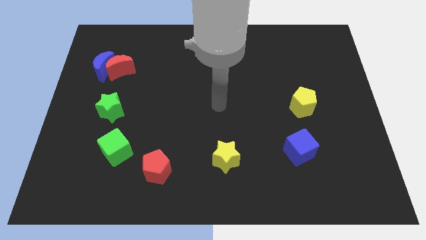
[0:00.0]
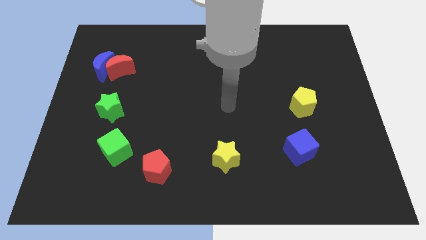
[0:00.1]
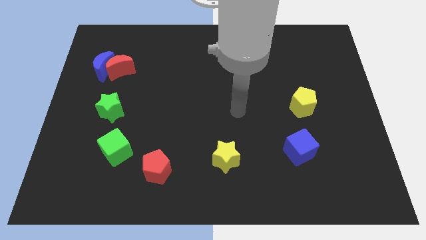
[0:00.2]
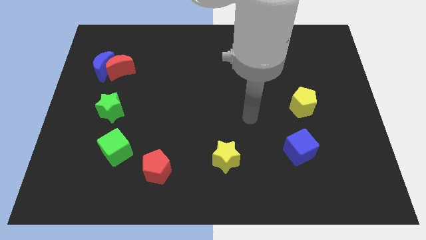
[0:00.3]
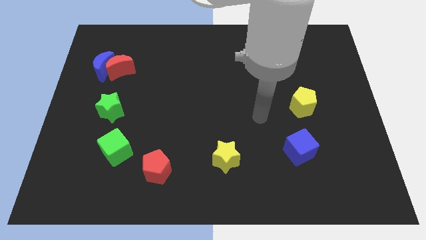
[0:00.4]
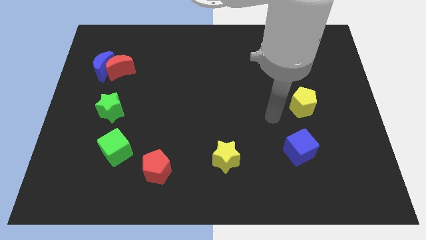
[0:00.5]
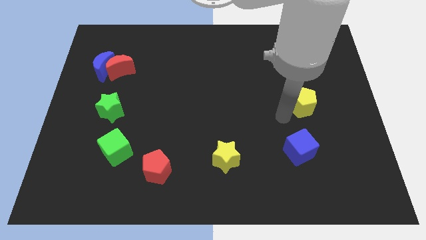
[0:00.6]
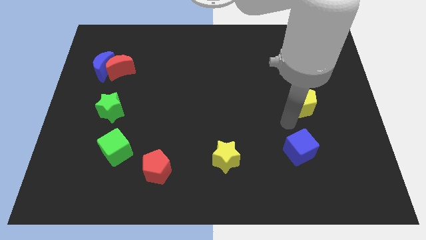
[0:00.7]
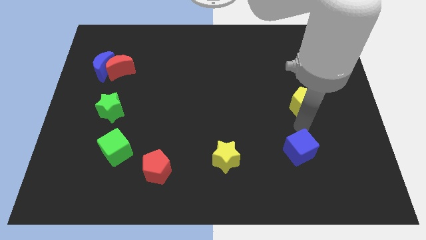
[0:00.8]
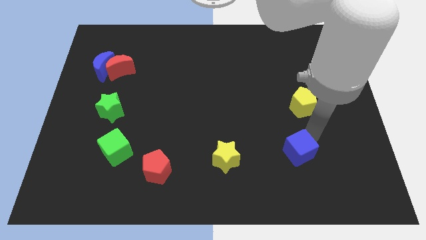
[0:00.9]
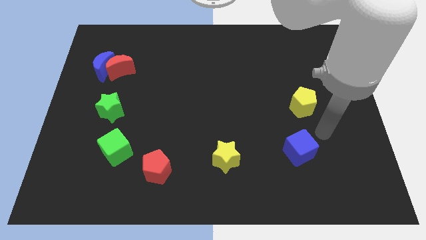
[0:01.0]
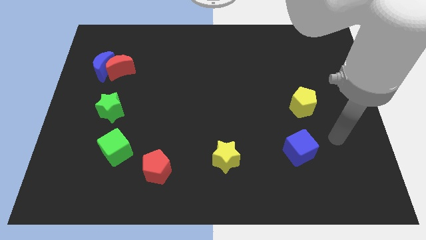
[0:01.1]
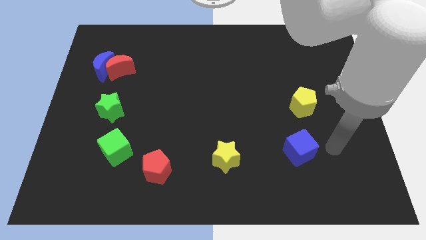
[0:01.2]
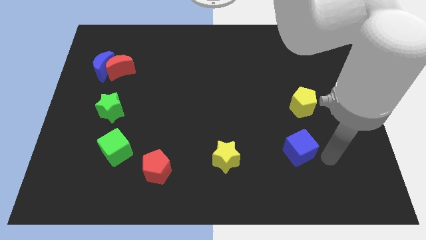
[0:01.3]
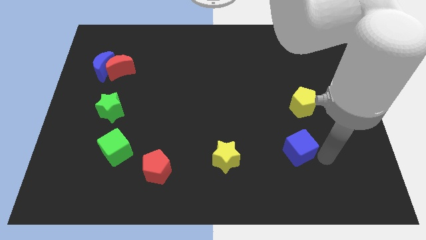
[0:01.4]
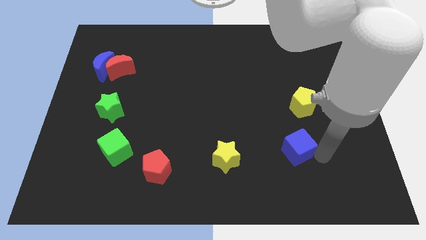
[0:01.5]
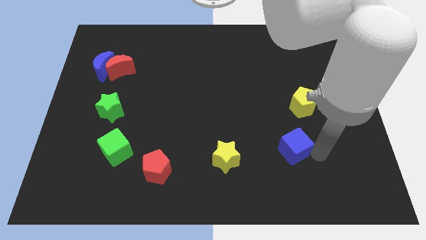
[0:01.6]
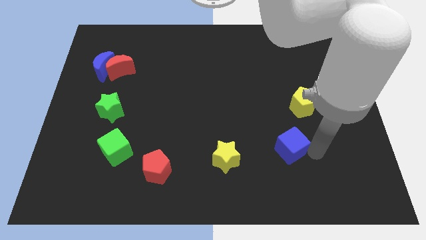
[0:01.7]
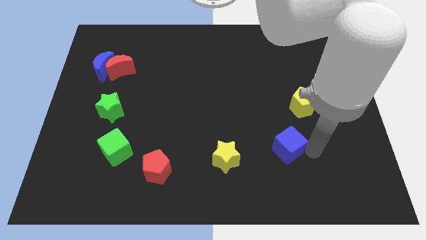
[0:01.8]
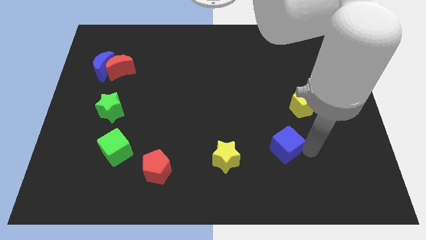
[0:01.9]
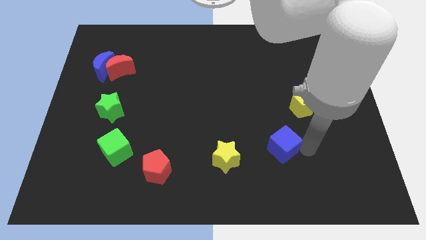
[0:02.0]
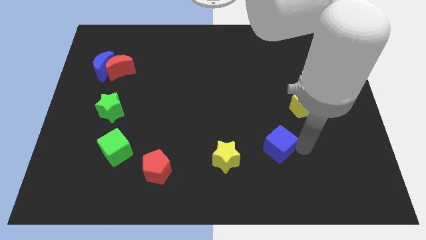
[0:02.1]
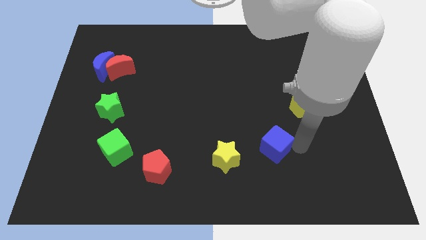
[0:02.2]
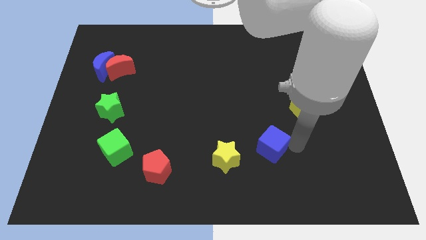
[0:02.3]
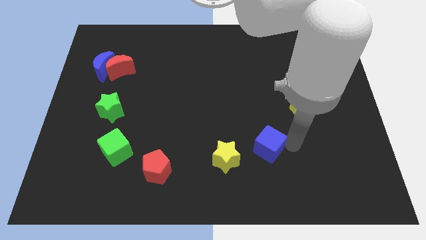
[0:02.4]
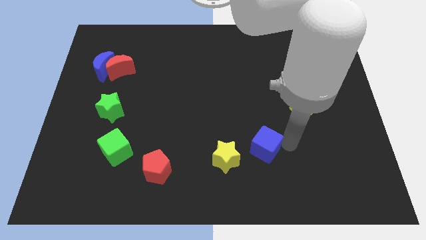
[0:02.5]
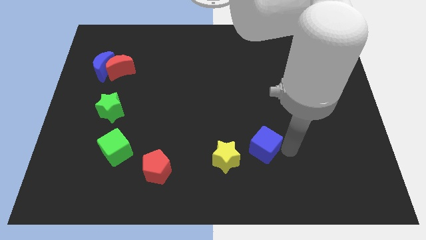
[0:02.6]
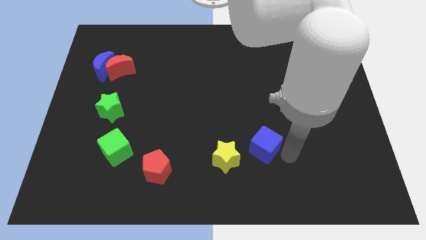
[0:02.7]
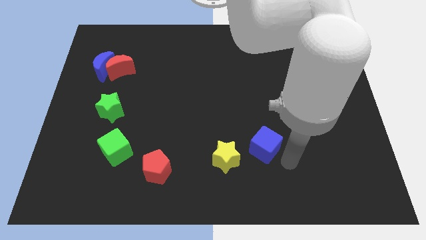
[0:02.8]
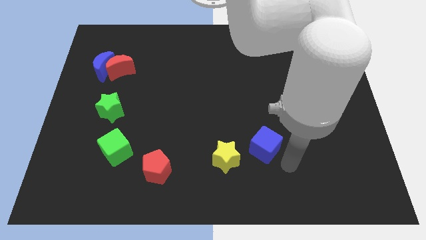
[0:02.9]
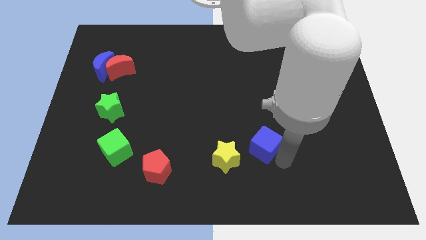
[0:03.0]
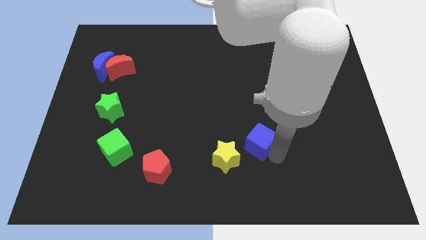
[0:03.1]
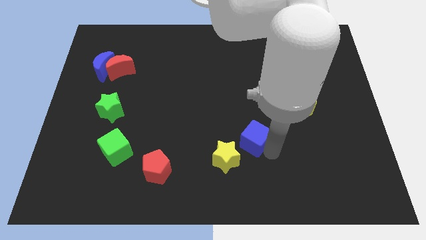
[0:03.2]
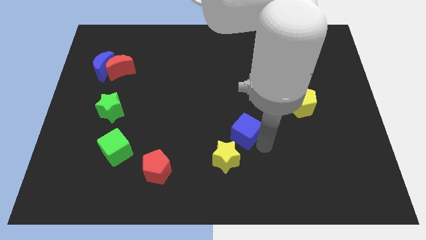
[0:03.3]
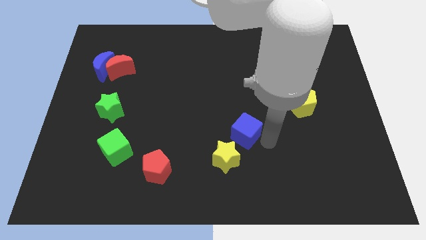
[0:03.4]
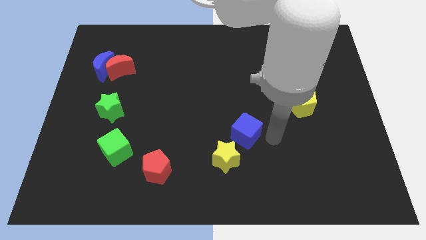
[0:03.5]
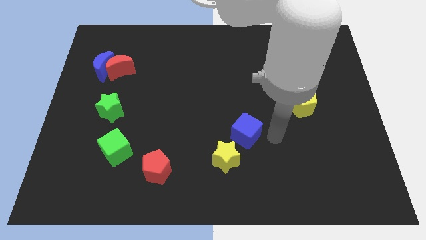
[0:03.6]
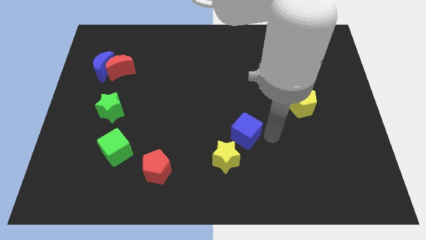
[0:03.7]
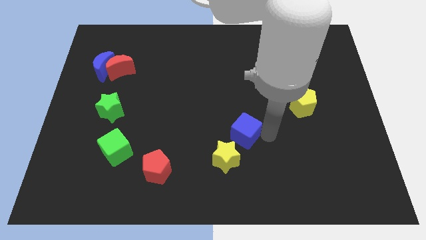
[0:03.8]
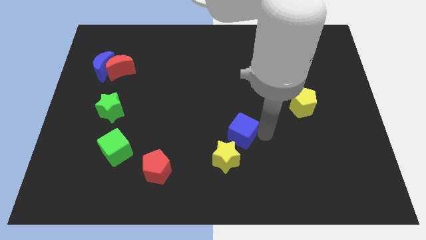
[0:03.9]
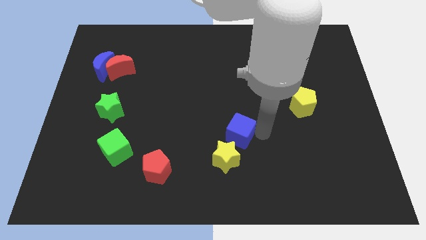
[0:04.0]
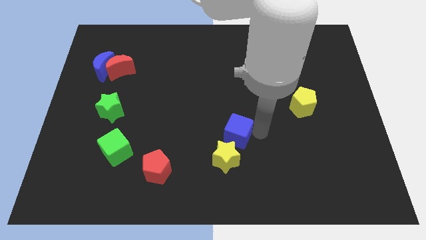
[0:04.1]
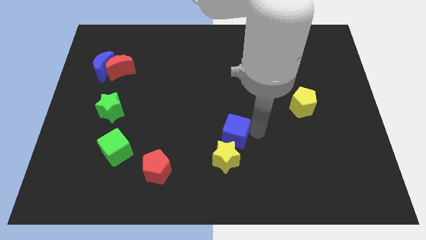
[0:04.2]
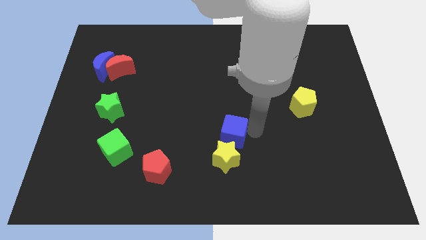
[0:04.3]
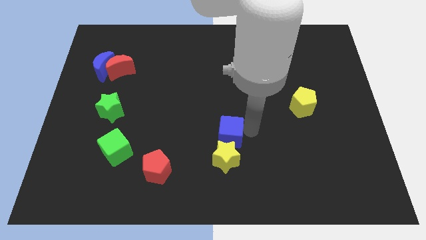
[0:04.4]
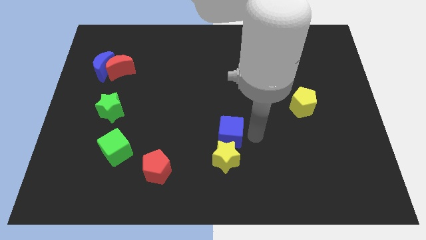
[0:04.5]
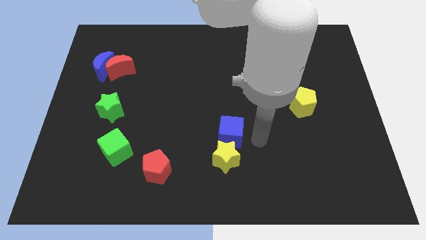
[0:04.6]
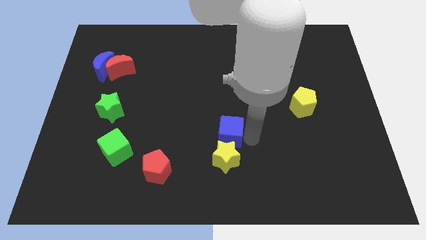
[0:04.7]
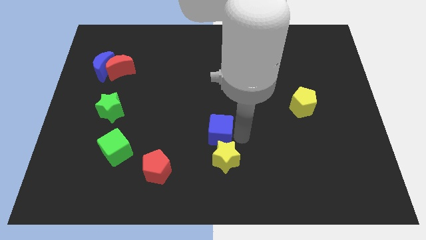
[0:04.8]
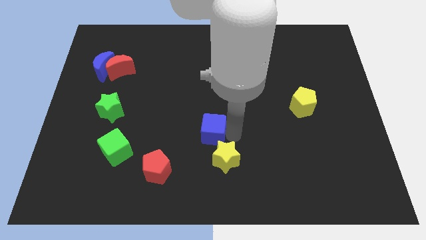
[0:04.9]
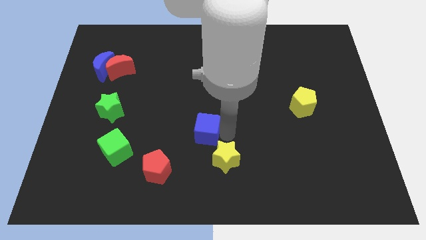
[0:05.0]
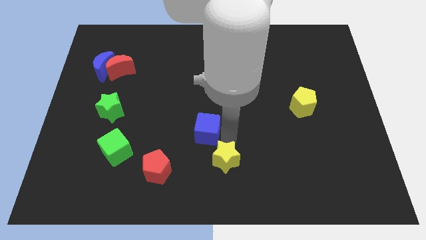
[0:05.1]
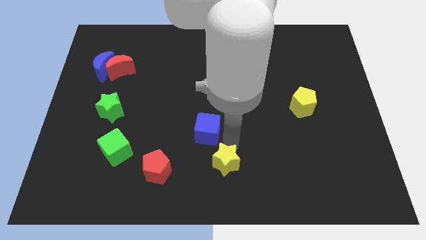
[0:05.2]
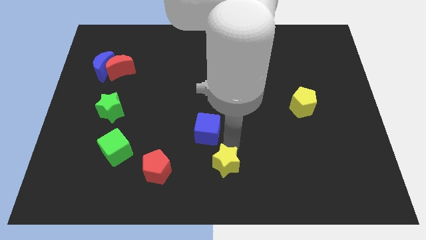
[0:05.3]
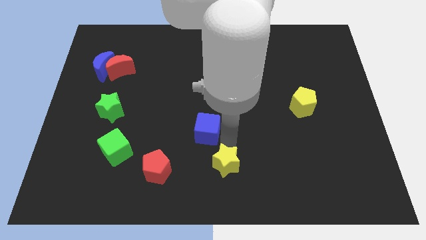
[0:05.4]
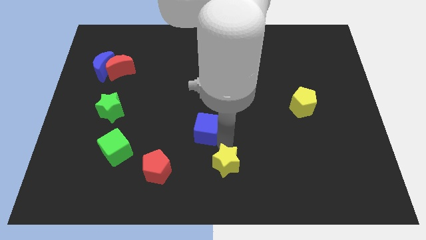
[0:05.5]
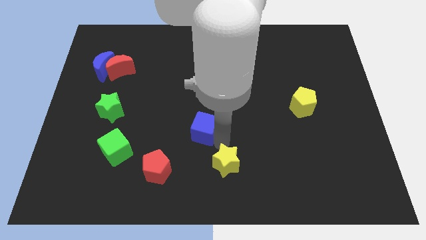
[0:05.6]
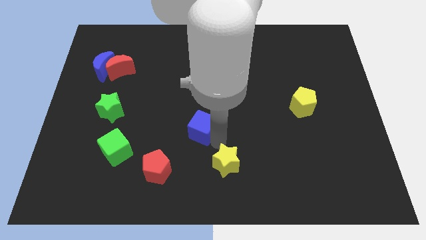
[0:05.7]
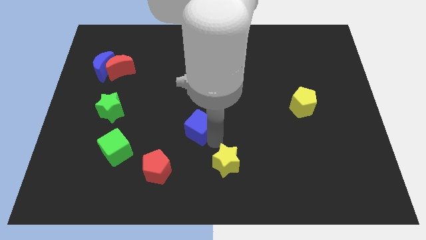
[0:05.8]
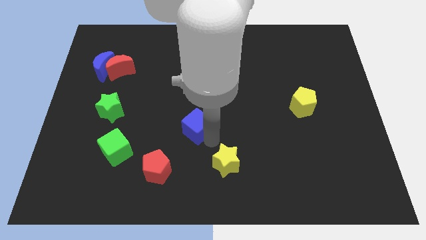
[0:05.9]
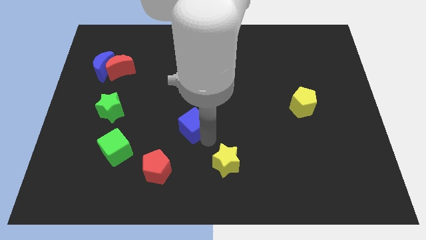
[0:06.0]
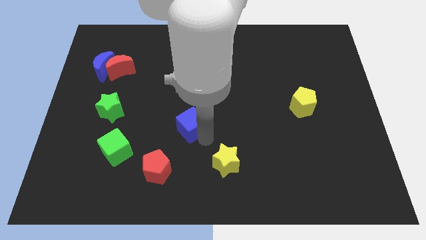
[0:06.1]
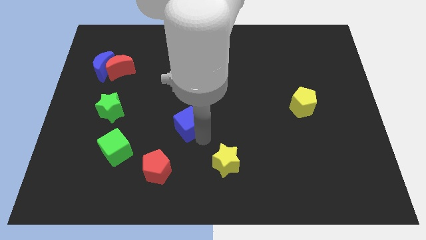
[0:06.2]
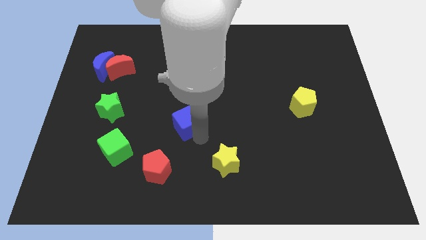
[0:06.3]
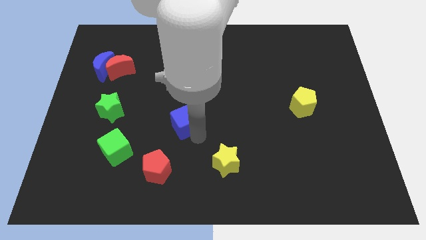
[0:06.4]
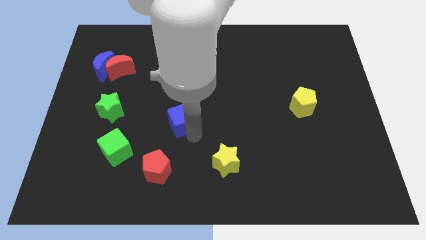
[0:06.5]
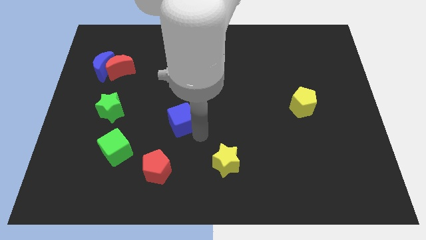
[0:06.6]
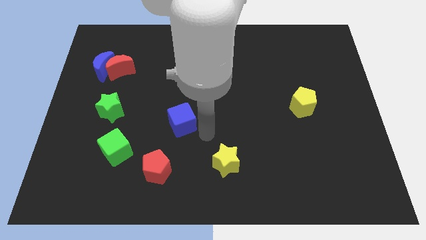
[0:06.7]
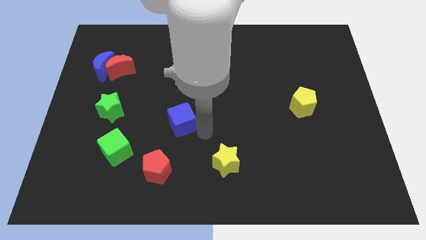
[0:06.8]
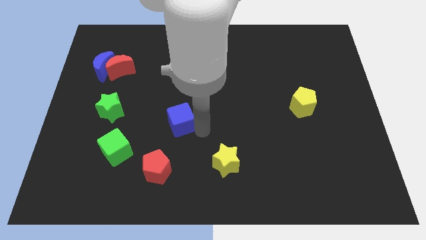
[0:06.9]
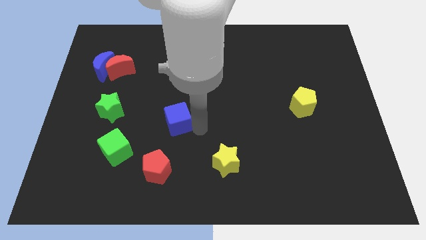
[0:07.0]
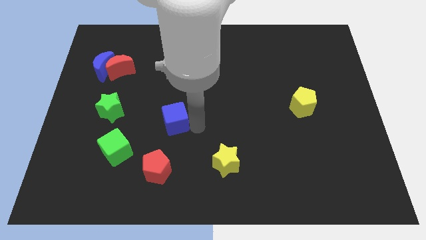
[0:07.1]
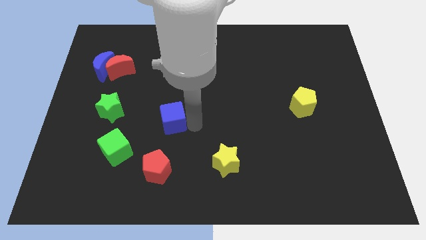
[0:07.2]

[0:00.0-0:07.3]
slide the blue cube right of the green star
